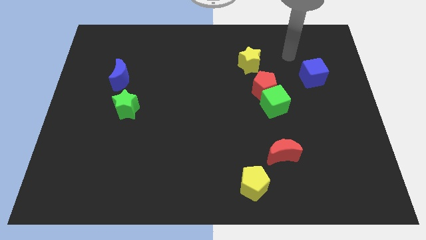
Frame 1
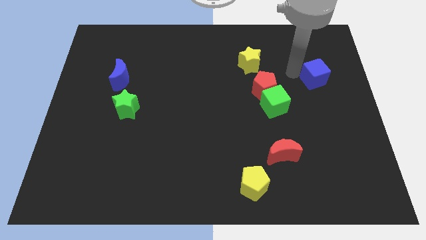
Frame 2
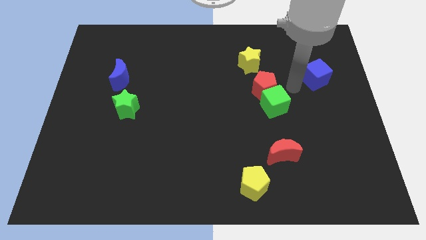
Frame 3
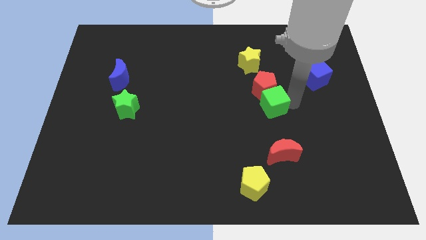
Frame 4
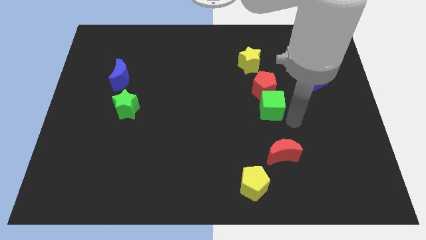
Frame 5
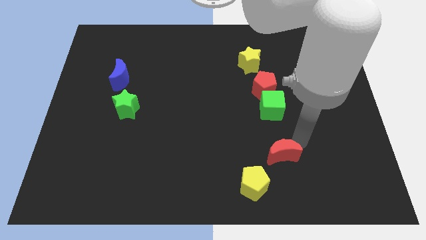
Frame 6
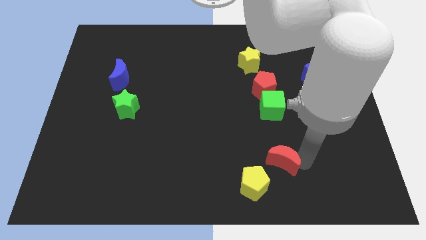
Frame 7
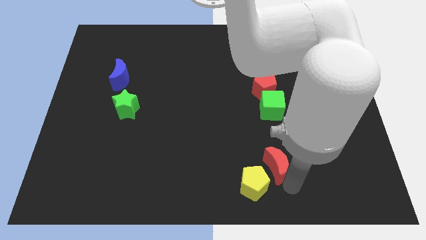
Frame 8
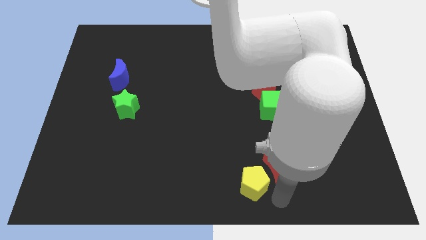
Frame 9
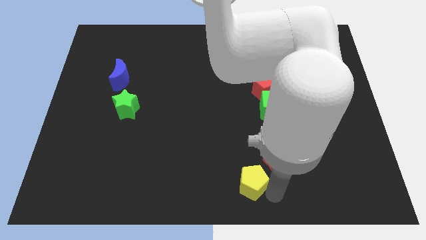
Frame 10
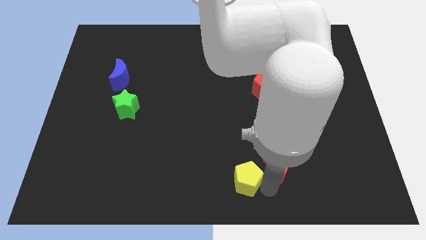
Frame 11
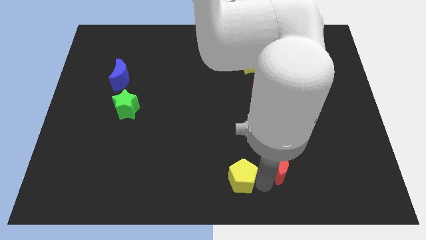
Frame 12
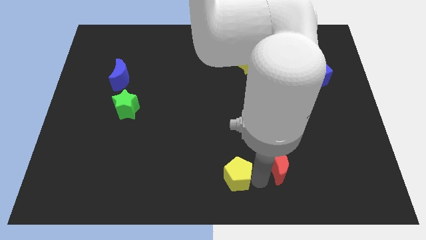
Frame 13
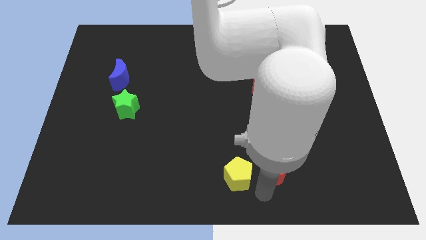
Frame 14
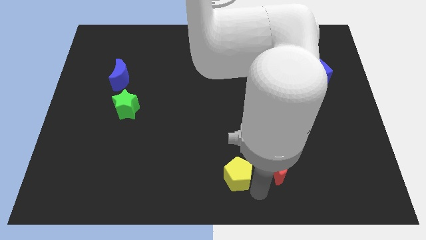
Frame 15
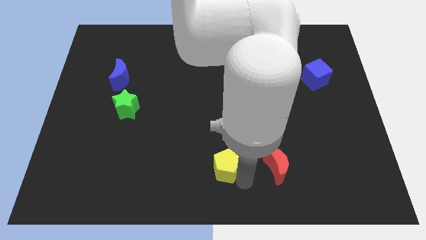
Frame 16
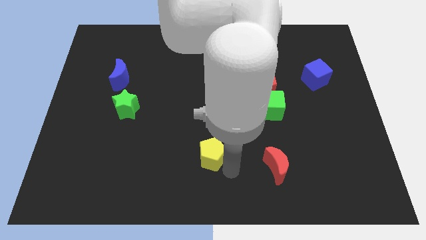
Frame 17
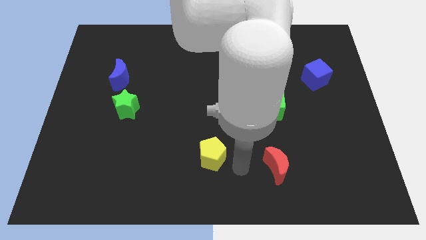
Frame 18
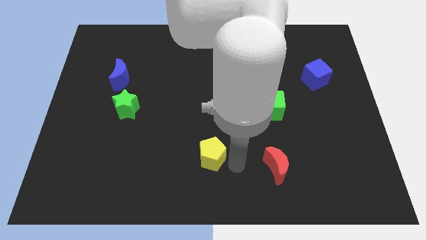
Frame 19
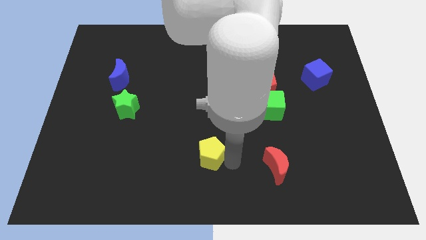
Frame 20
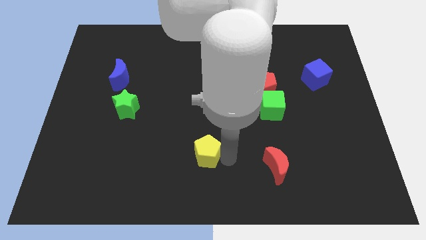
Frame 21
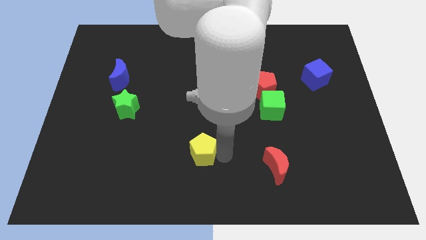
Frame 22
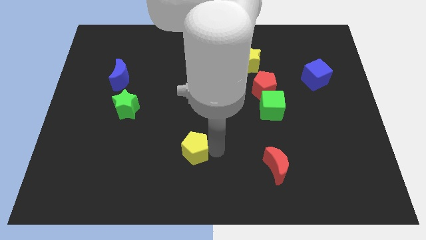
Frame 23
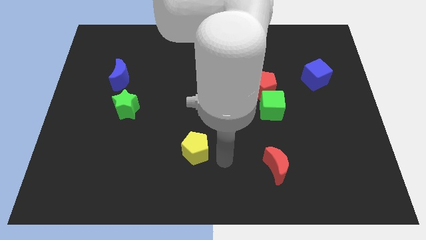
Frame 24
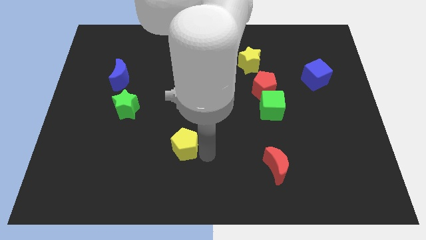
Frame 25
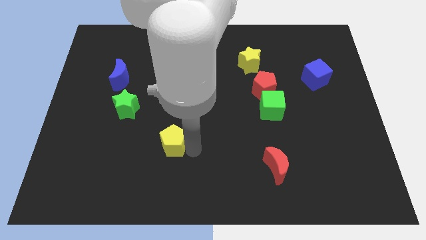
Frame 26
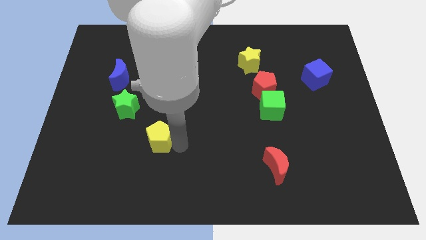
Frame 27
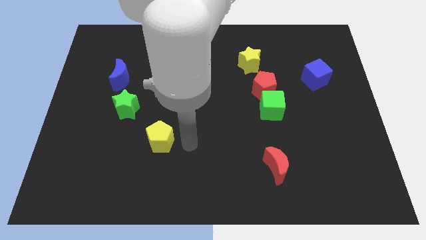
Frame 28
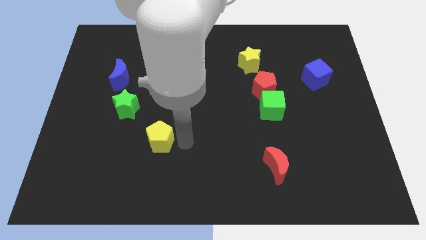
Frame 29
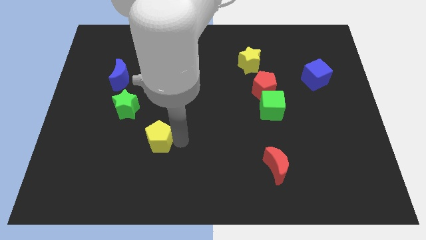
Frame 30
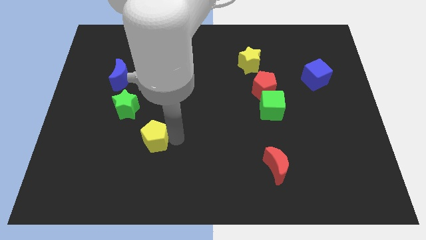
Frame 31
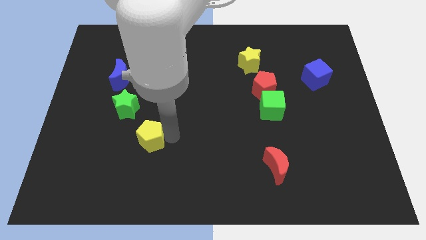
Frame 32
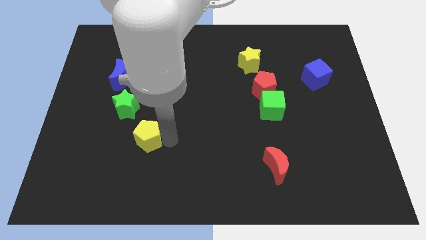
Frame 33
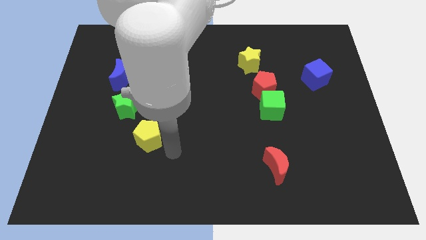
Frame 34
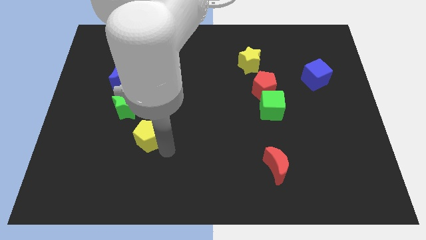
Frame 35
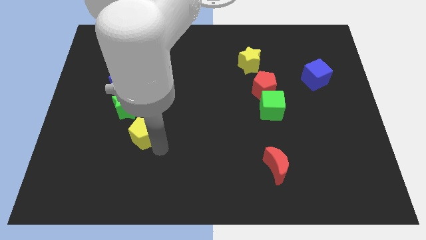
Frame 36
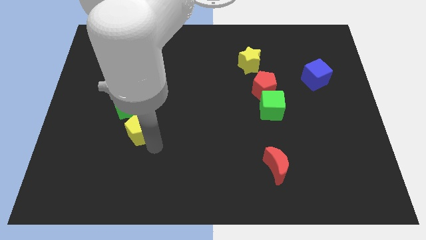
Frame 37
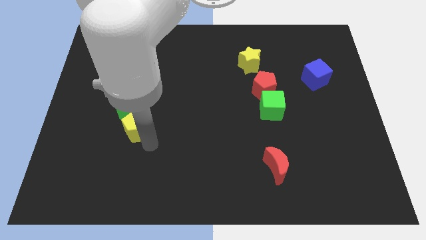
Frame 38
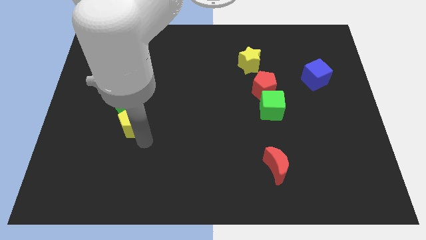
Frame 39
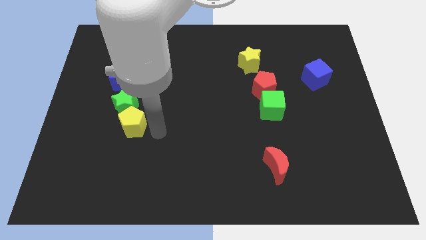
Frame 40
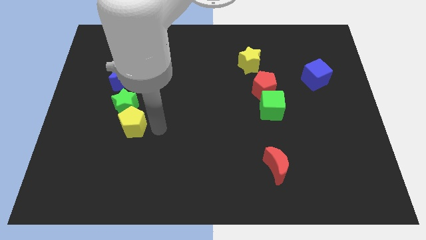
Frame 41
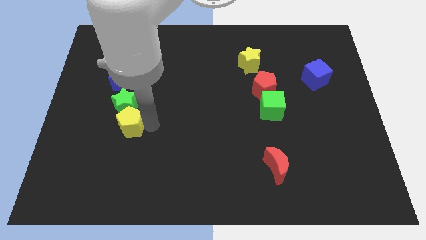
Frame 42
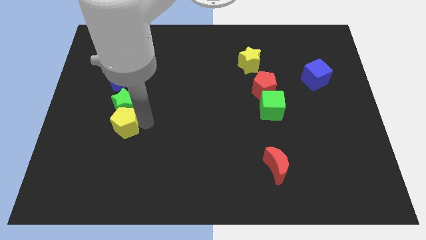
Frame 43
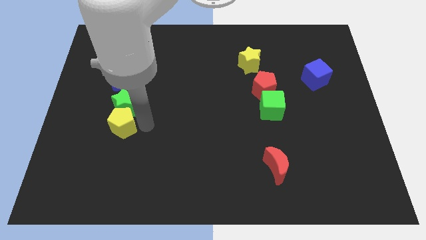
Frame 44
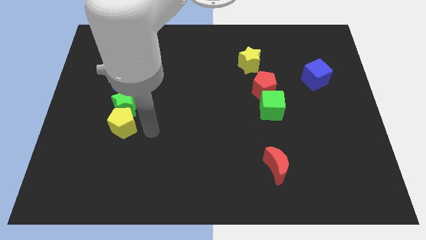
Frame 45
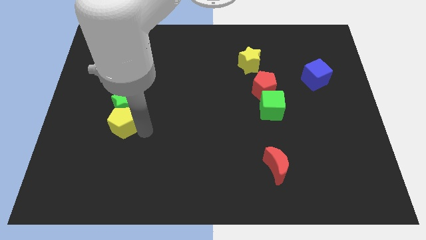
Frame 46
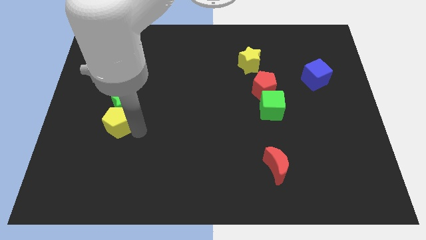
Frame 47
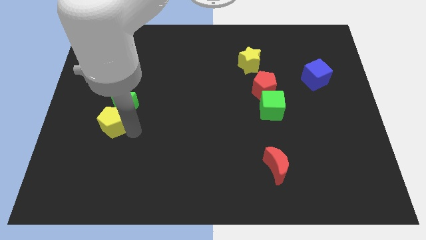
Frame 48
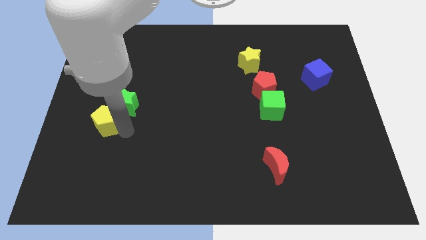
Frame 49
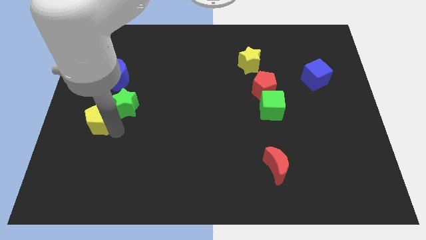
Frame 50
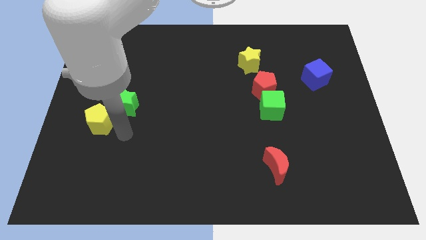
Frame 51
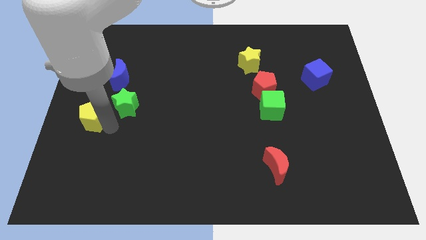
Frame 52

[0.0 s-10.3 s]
slide the yellow pentagon to the left side of the board

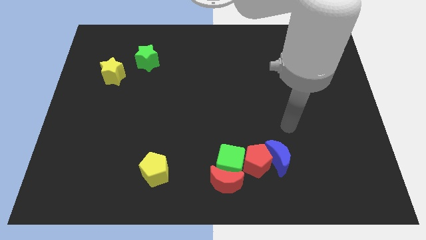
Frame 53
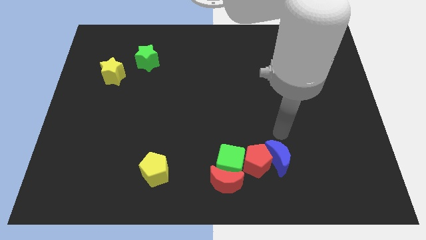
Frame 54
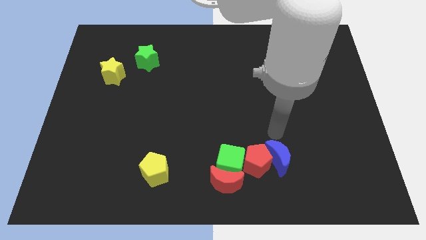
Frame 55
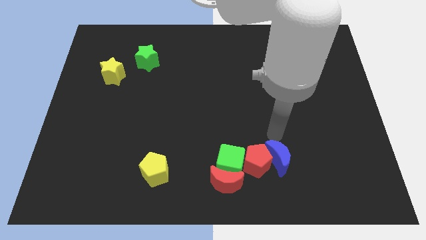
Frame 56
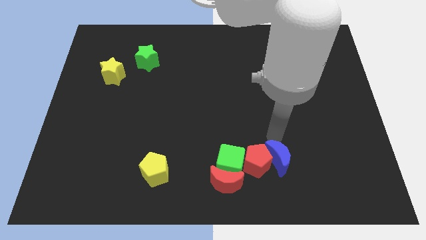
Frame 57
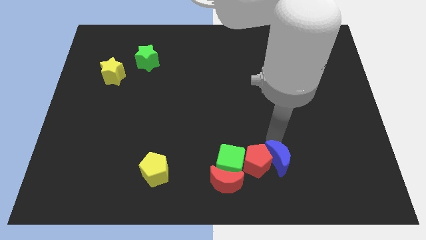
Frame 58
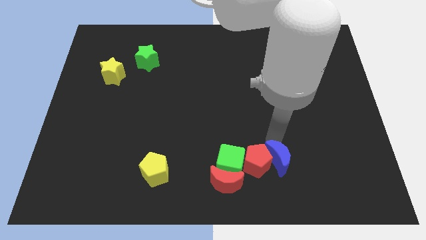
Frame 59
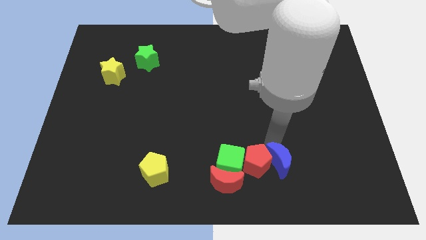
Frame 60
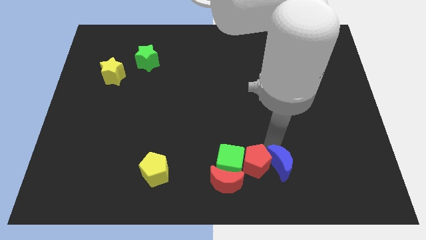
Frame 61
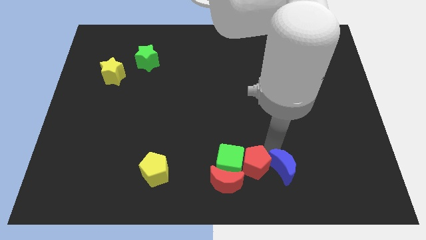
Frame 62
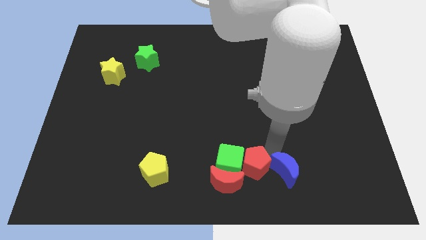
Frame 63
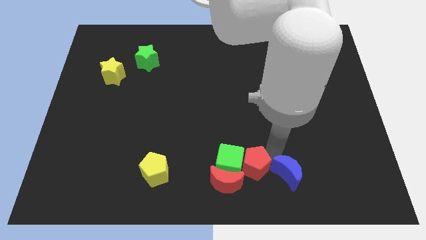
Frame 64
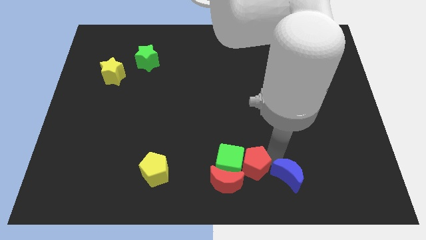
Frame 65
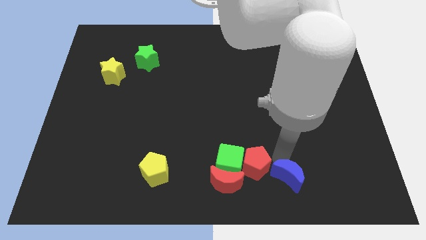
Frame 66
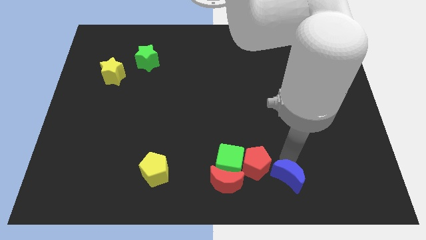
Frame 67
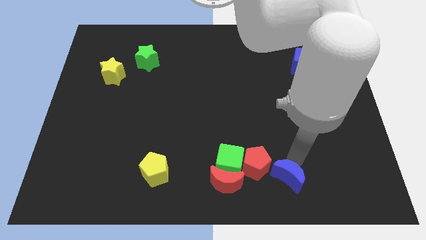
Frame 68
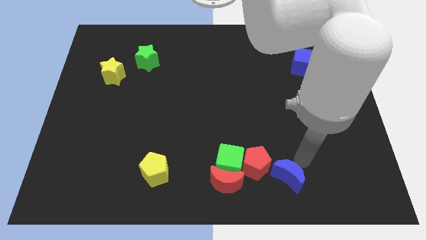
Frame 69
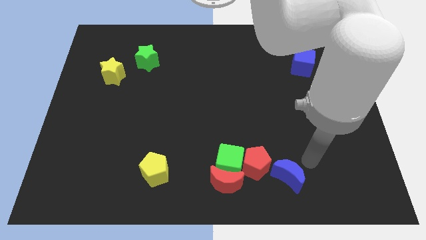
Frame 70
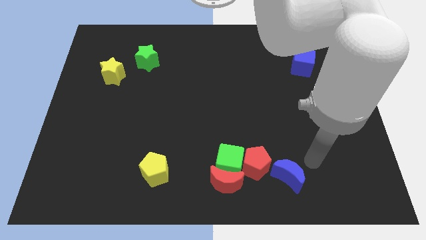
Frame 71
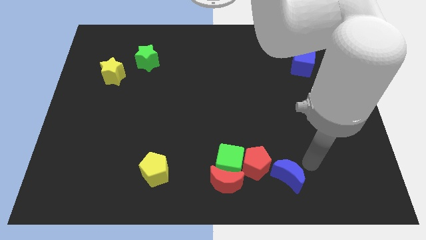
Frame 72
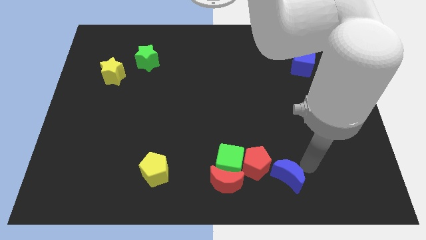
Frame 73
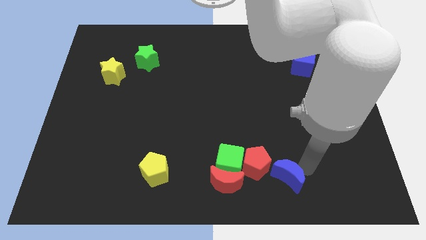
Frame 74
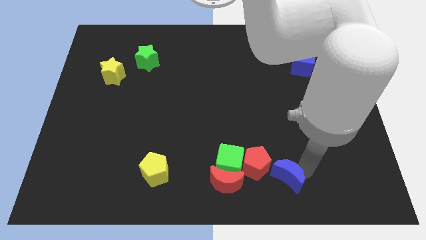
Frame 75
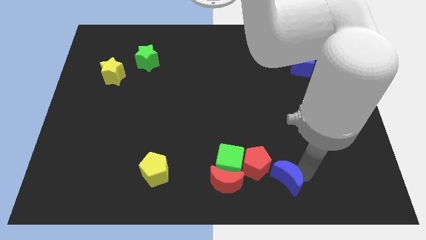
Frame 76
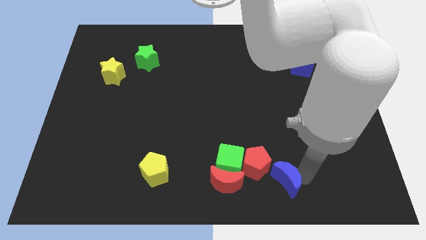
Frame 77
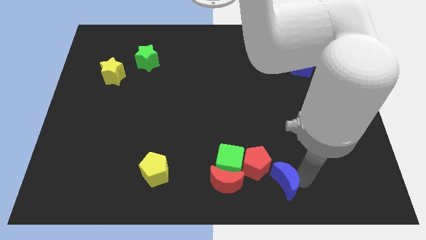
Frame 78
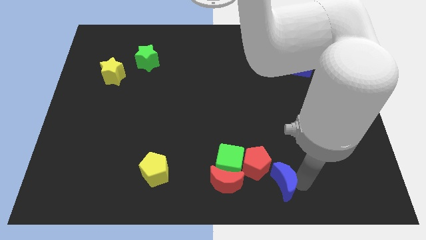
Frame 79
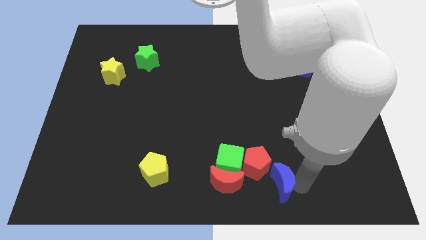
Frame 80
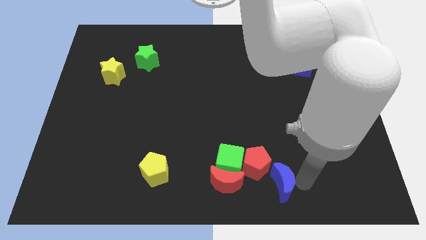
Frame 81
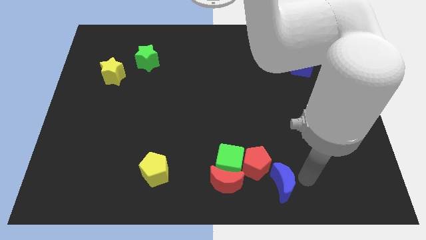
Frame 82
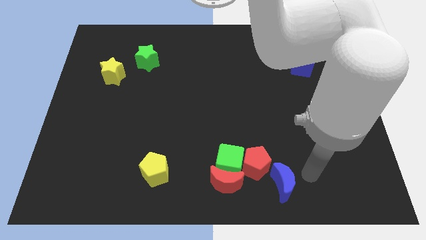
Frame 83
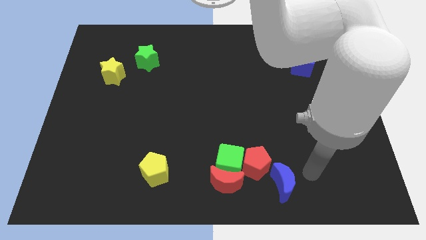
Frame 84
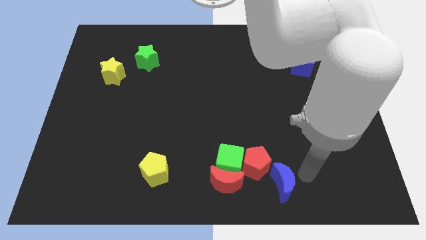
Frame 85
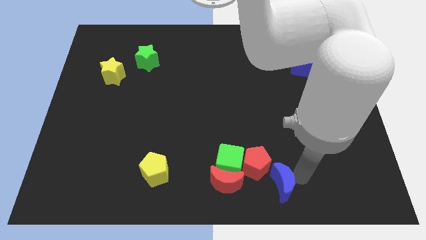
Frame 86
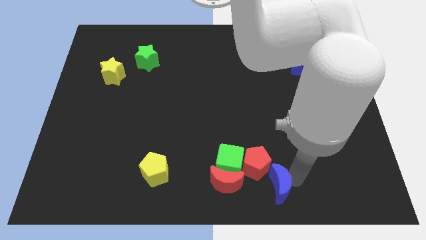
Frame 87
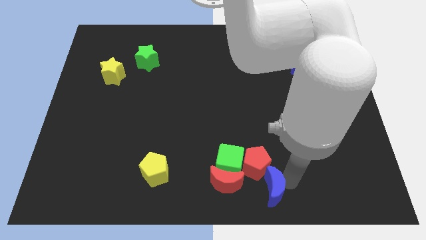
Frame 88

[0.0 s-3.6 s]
push the blue moon to the bottom
